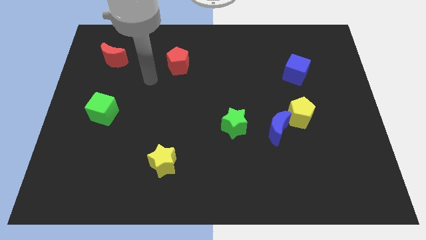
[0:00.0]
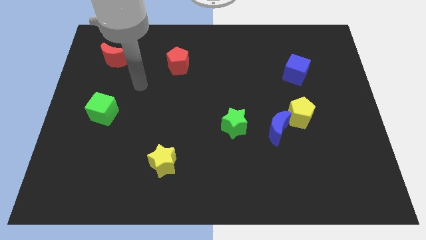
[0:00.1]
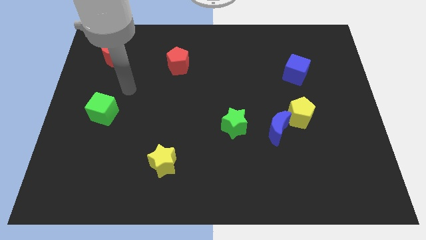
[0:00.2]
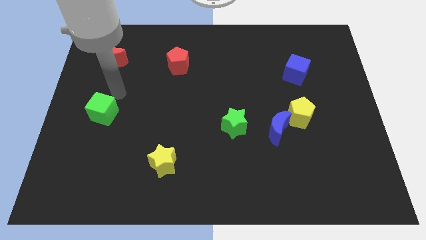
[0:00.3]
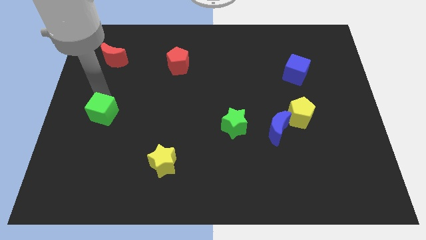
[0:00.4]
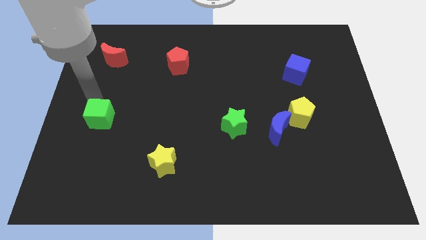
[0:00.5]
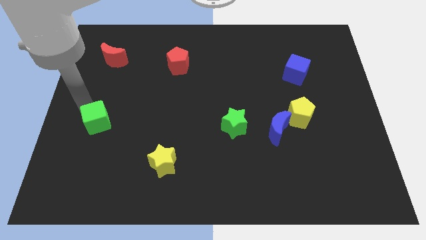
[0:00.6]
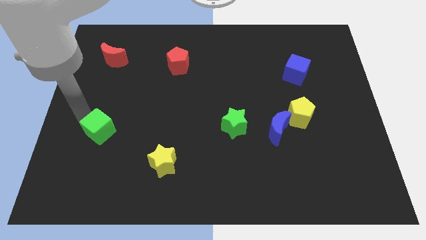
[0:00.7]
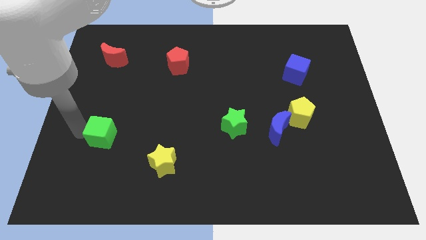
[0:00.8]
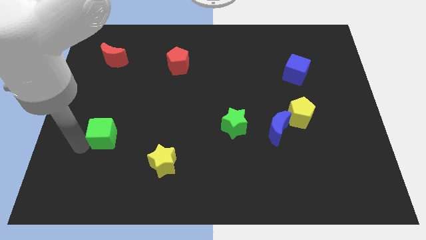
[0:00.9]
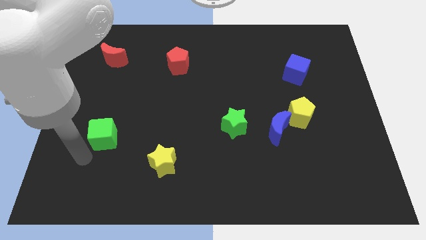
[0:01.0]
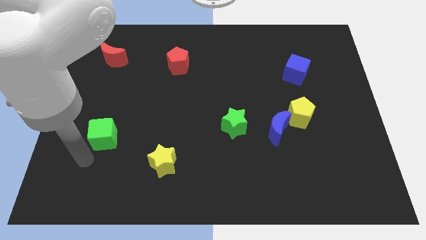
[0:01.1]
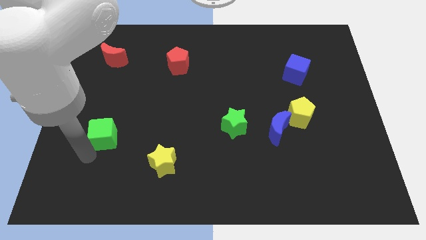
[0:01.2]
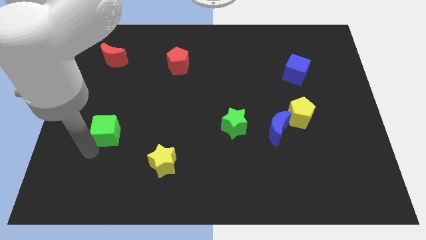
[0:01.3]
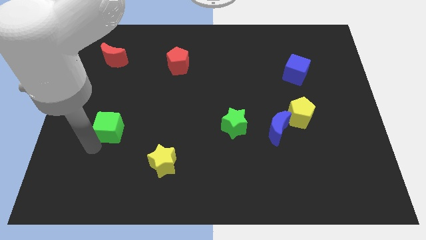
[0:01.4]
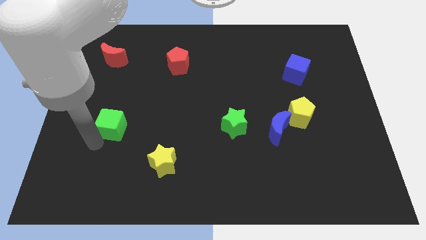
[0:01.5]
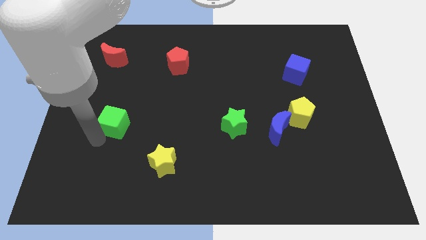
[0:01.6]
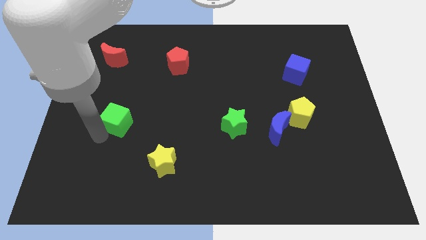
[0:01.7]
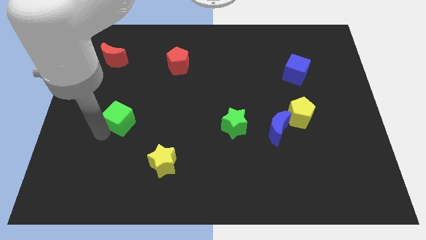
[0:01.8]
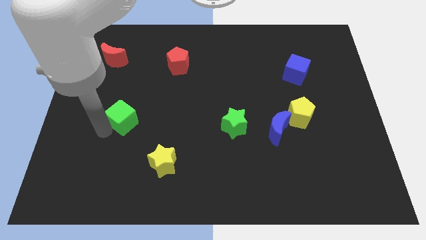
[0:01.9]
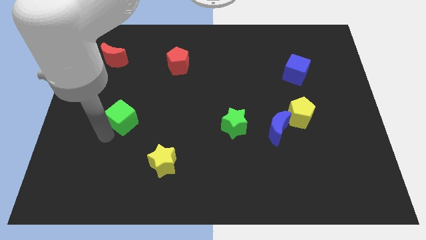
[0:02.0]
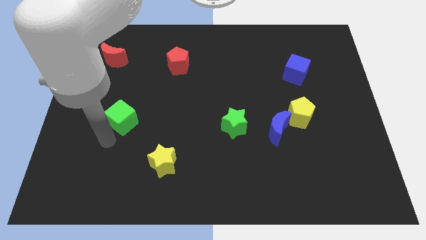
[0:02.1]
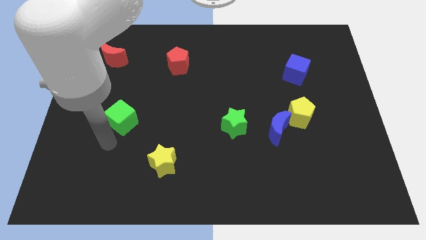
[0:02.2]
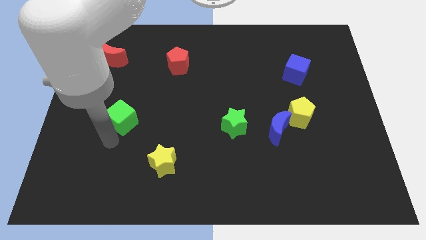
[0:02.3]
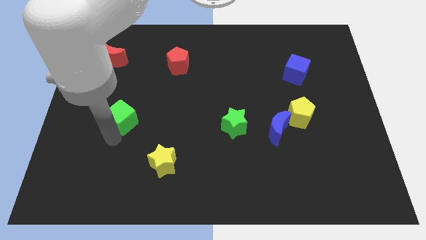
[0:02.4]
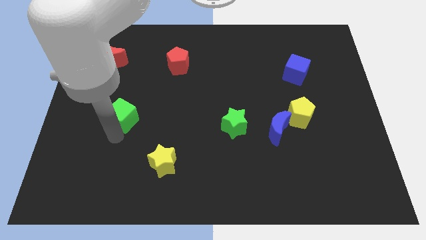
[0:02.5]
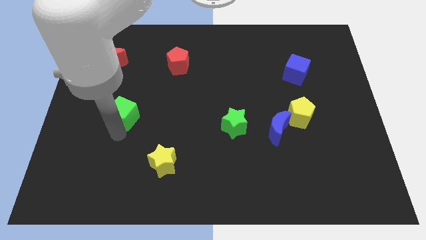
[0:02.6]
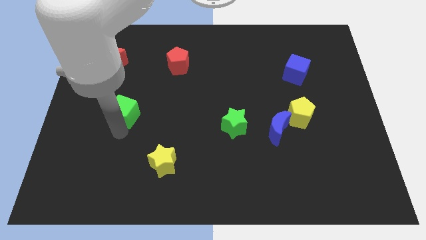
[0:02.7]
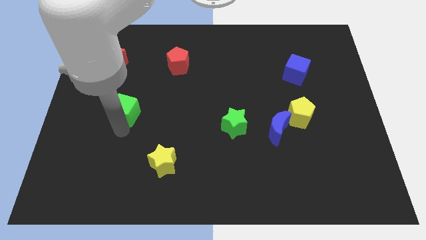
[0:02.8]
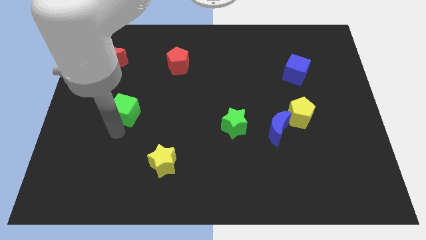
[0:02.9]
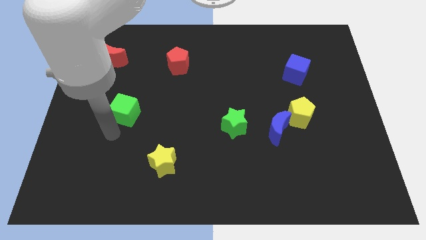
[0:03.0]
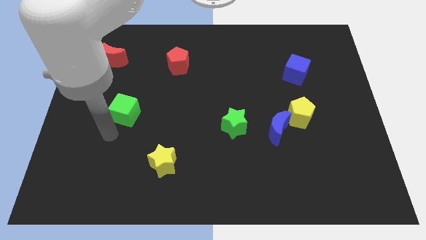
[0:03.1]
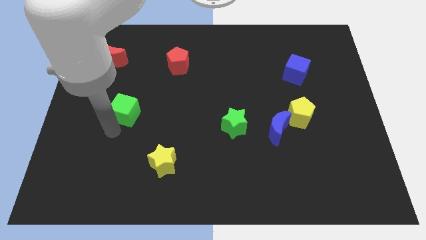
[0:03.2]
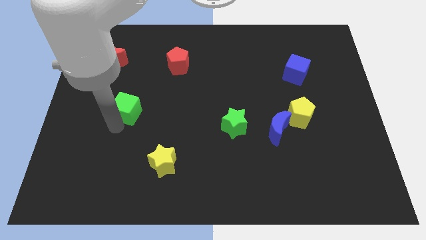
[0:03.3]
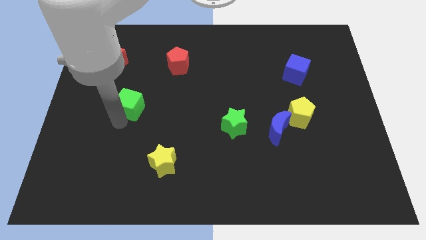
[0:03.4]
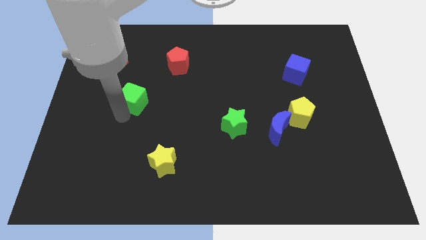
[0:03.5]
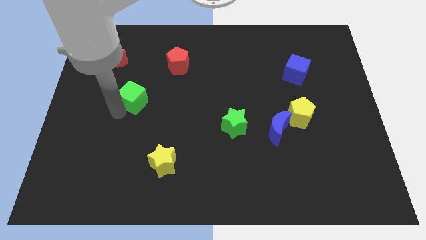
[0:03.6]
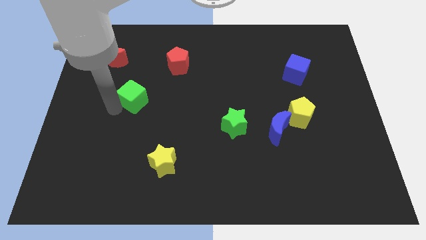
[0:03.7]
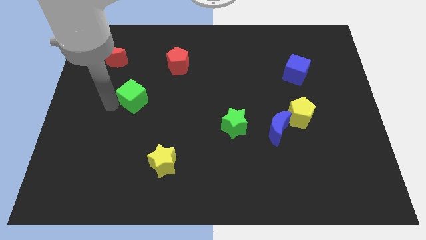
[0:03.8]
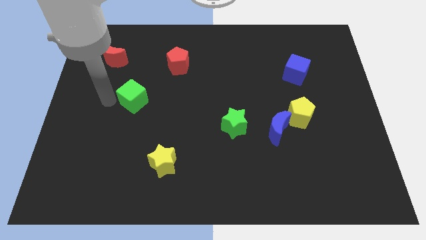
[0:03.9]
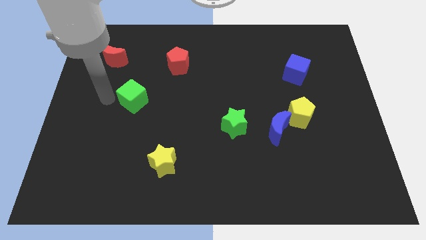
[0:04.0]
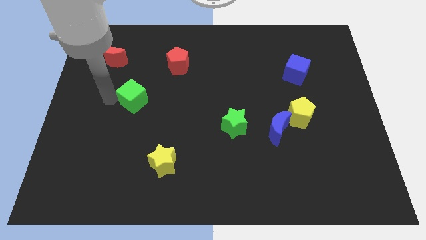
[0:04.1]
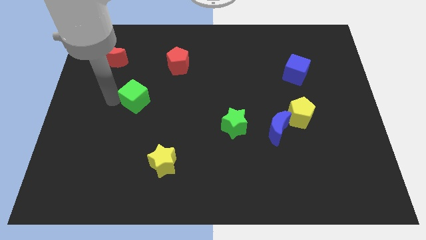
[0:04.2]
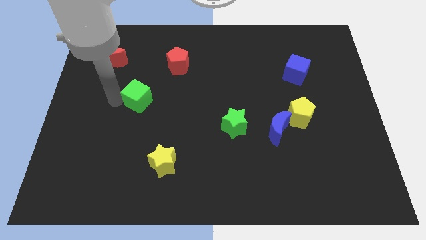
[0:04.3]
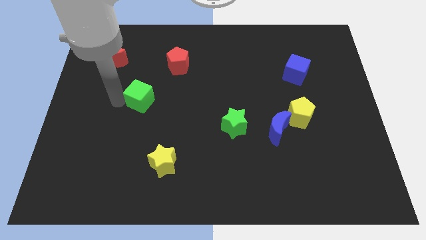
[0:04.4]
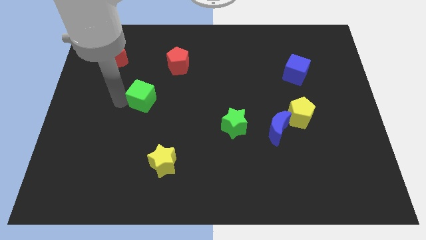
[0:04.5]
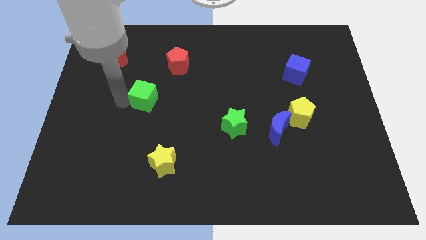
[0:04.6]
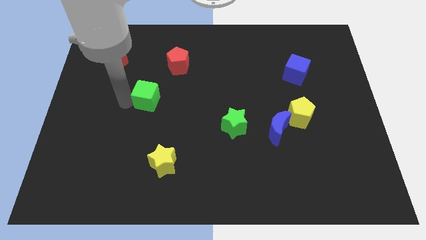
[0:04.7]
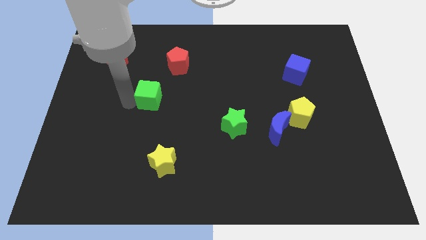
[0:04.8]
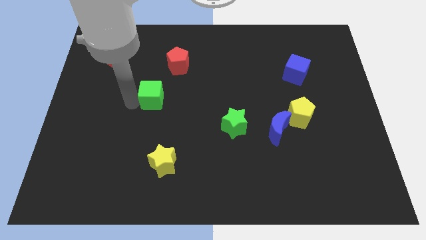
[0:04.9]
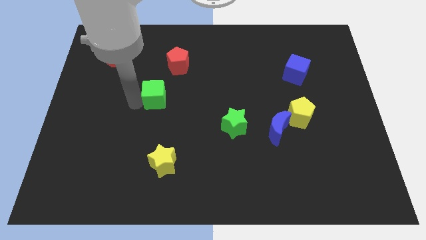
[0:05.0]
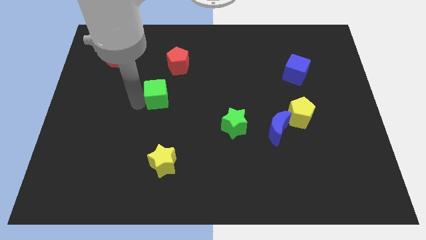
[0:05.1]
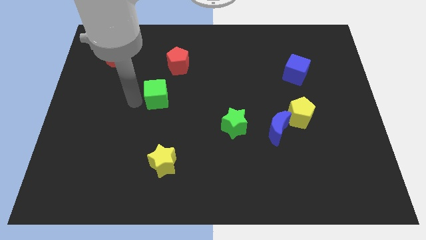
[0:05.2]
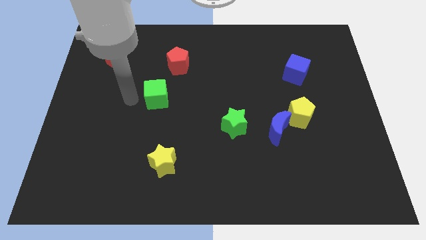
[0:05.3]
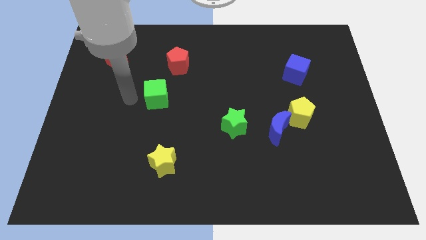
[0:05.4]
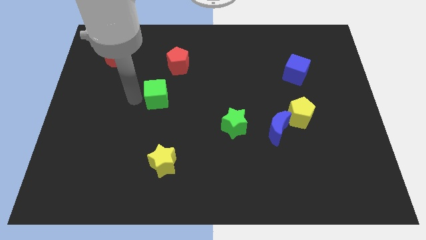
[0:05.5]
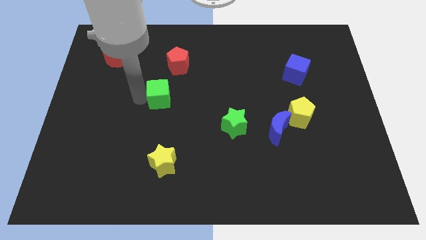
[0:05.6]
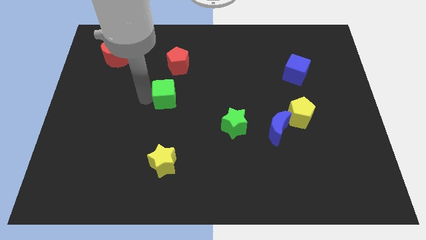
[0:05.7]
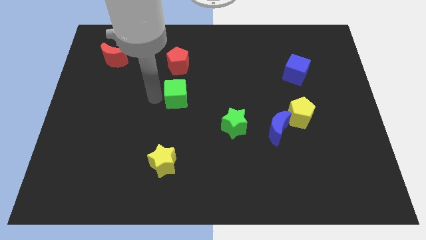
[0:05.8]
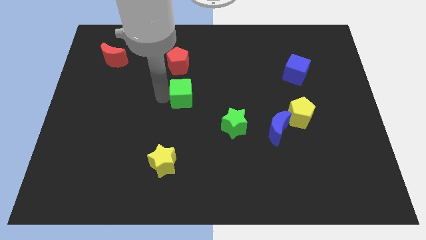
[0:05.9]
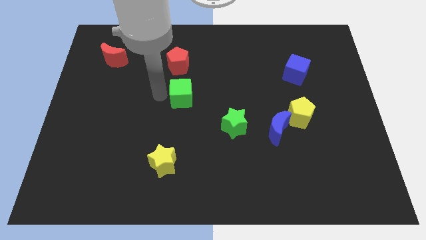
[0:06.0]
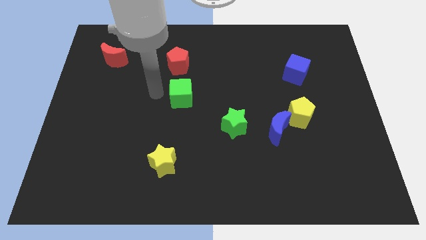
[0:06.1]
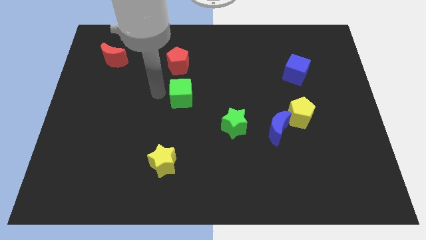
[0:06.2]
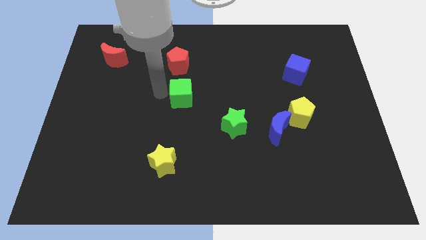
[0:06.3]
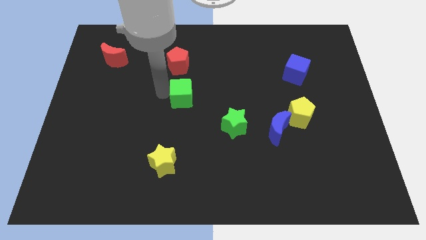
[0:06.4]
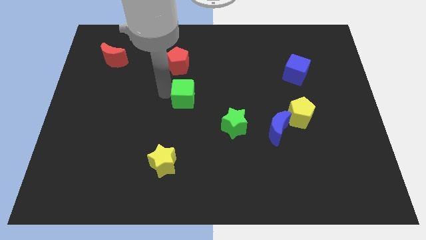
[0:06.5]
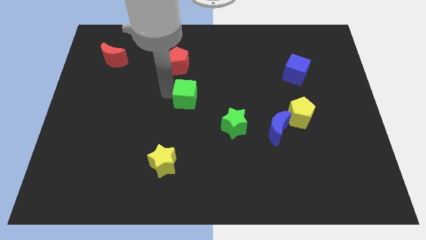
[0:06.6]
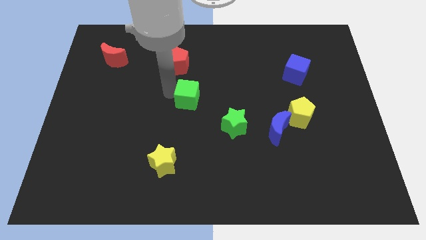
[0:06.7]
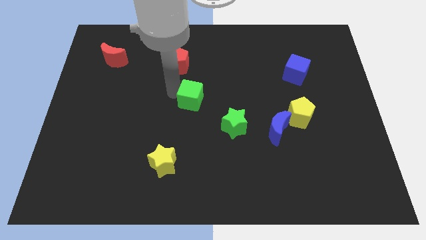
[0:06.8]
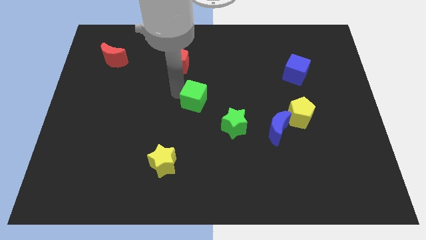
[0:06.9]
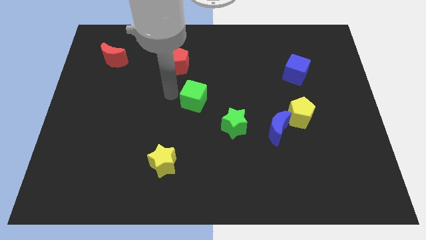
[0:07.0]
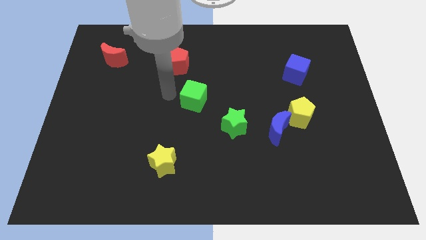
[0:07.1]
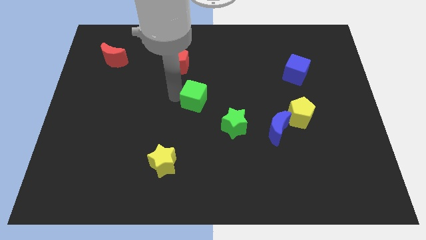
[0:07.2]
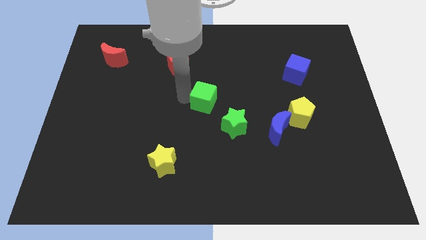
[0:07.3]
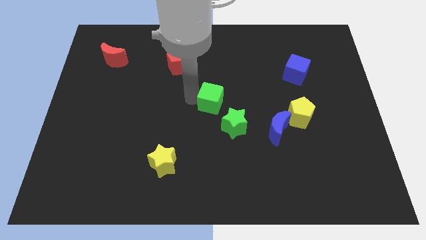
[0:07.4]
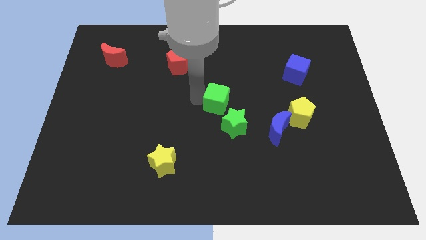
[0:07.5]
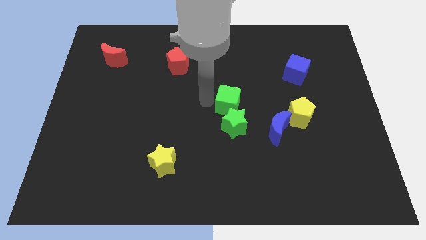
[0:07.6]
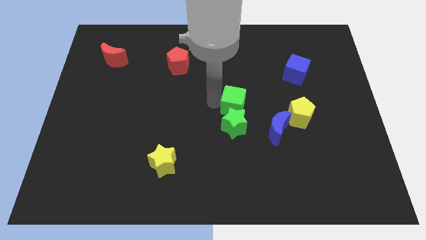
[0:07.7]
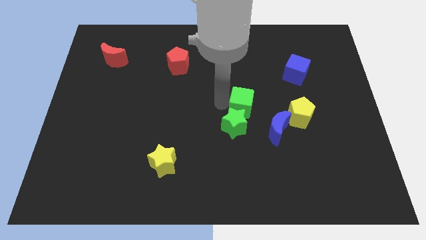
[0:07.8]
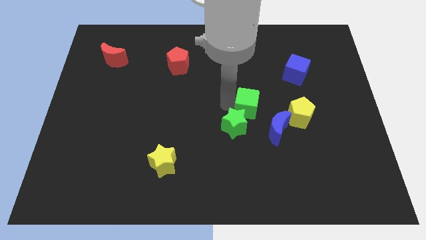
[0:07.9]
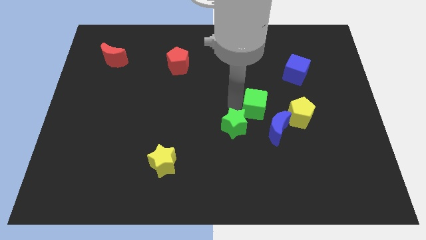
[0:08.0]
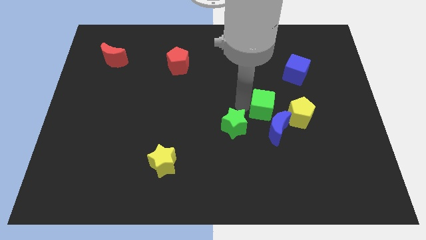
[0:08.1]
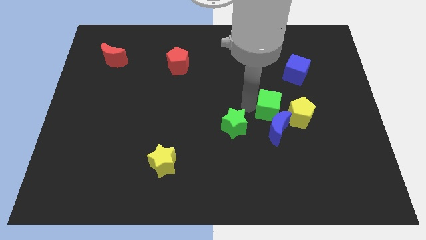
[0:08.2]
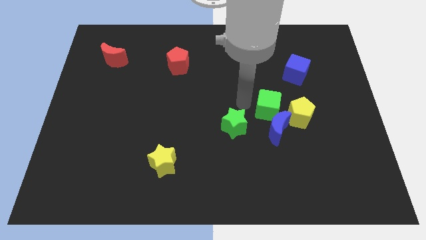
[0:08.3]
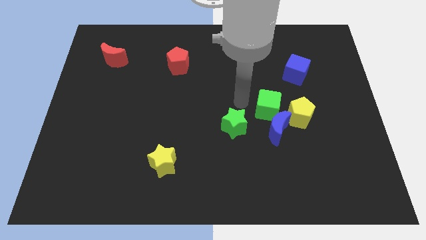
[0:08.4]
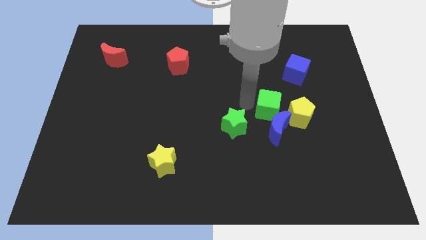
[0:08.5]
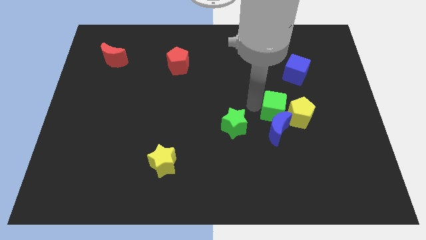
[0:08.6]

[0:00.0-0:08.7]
put the green cube next to the yellow pentagon
